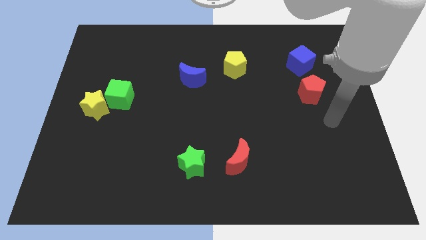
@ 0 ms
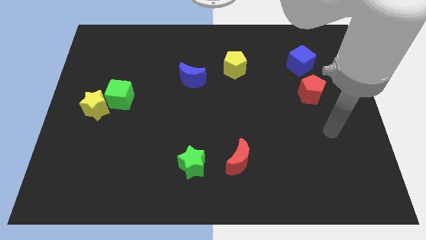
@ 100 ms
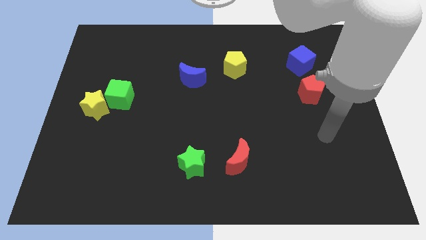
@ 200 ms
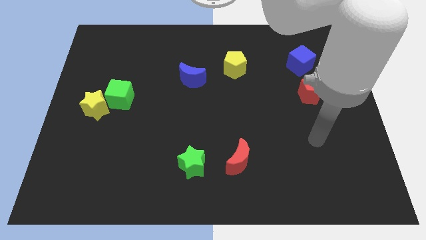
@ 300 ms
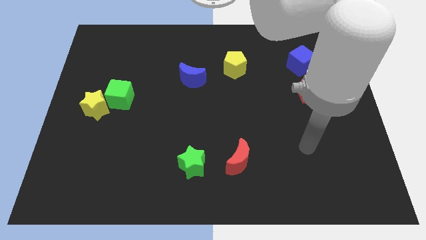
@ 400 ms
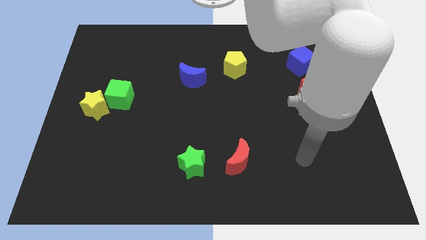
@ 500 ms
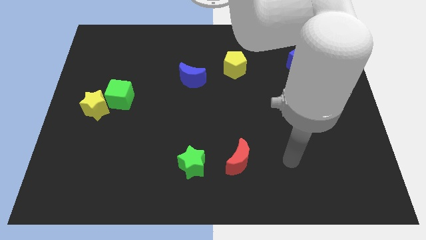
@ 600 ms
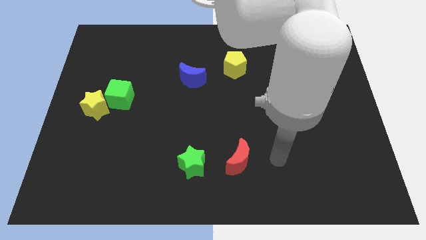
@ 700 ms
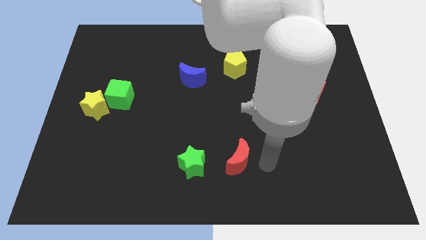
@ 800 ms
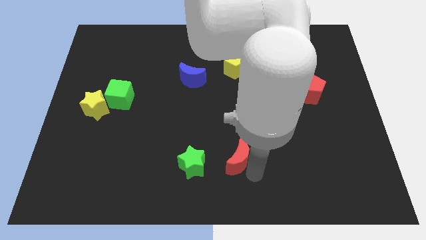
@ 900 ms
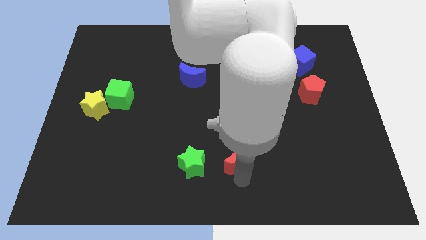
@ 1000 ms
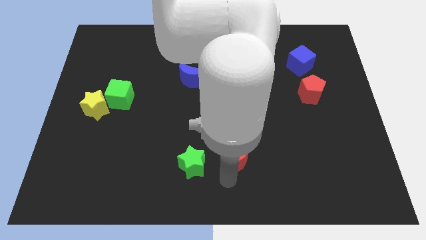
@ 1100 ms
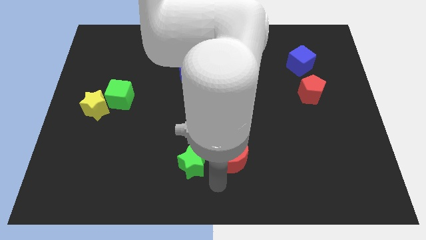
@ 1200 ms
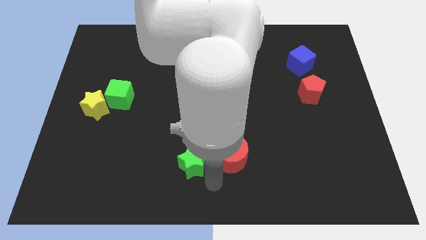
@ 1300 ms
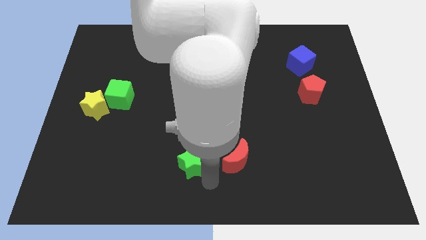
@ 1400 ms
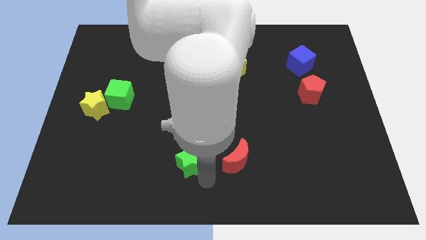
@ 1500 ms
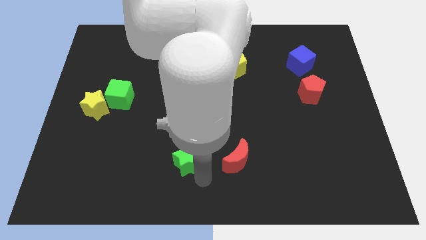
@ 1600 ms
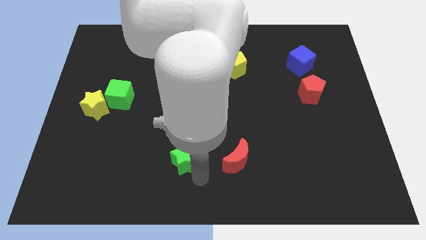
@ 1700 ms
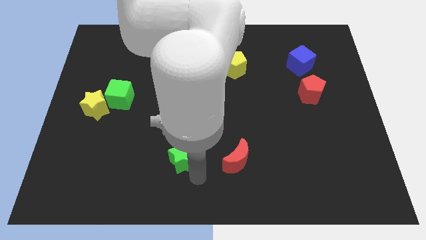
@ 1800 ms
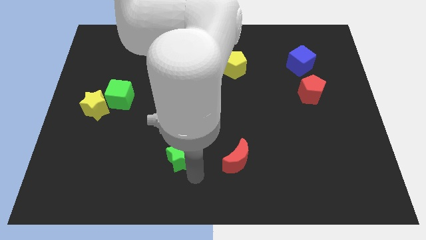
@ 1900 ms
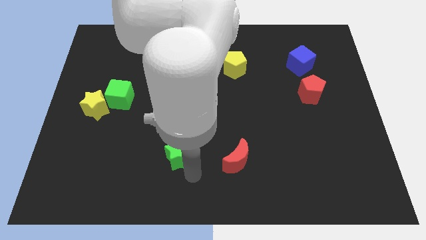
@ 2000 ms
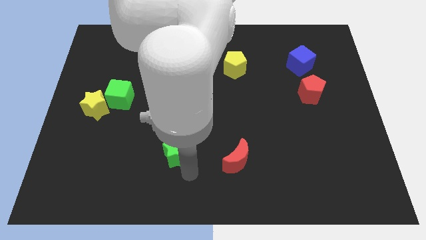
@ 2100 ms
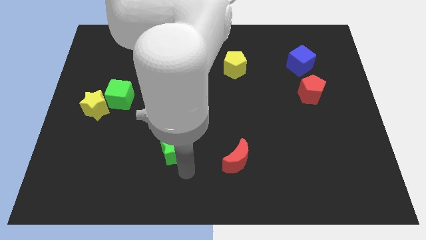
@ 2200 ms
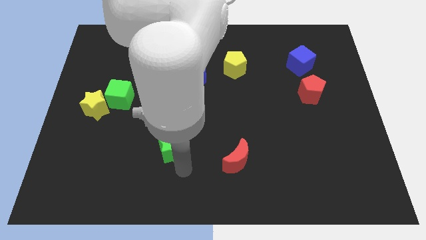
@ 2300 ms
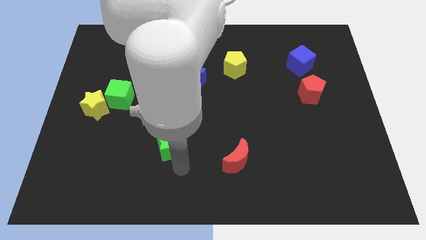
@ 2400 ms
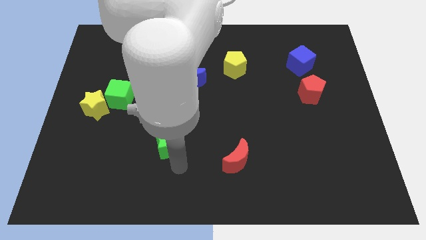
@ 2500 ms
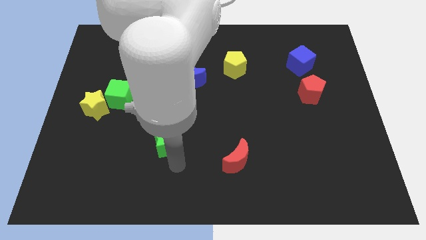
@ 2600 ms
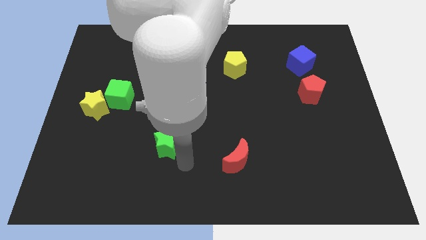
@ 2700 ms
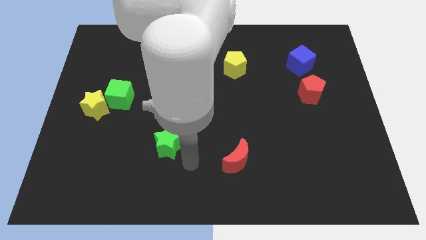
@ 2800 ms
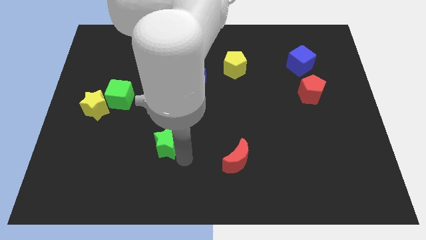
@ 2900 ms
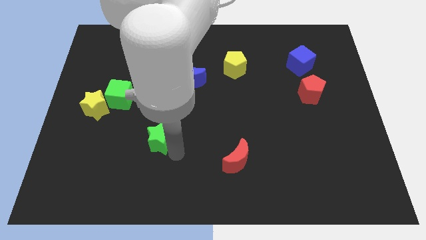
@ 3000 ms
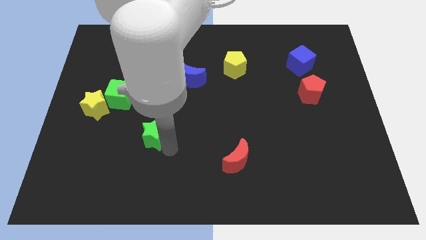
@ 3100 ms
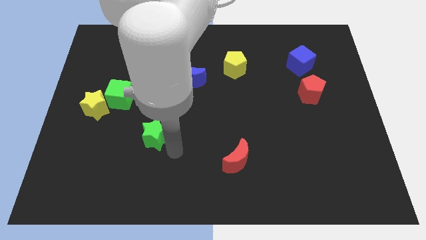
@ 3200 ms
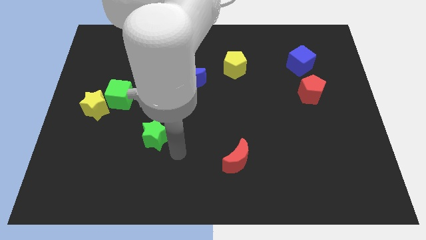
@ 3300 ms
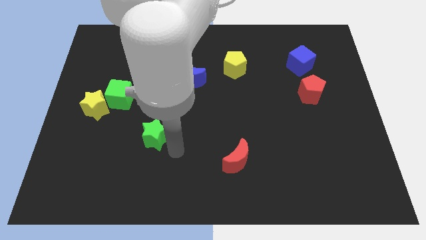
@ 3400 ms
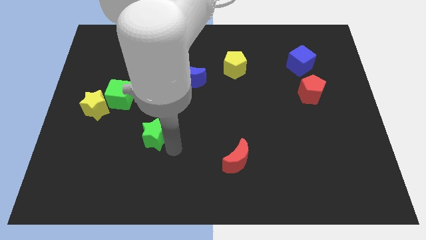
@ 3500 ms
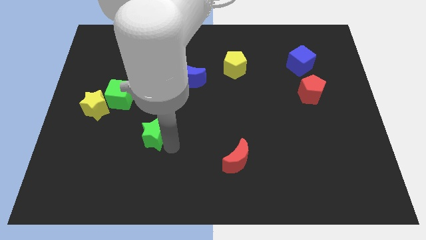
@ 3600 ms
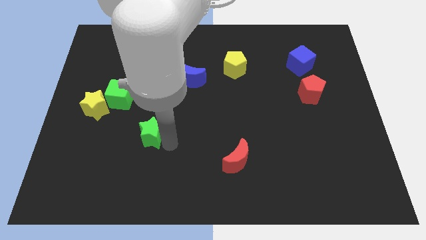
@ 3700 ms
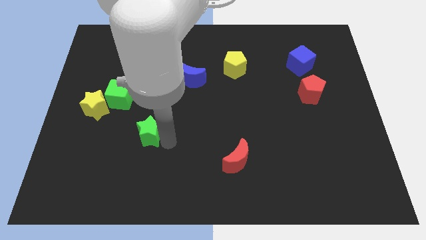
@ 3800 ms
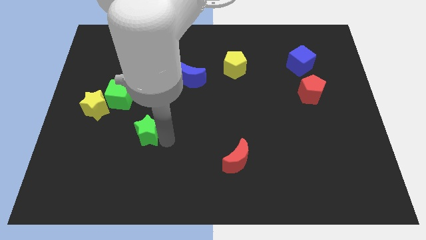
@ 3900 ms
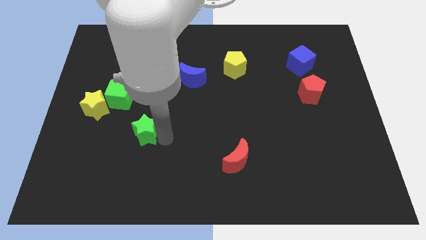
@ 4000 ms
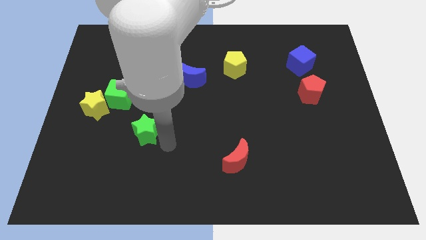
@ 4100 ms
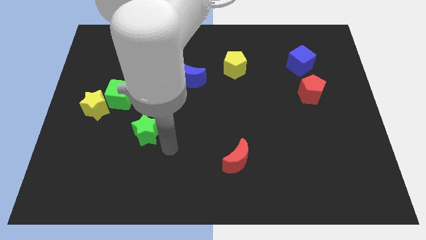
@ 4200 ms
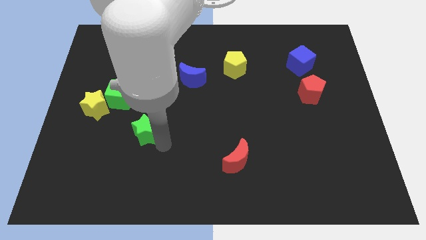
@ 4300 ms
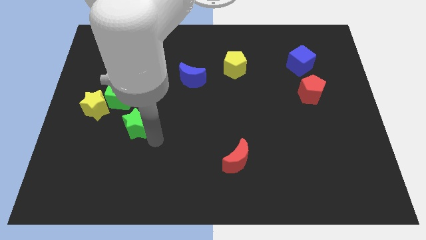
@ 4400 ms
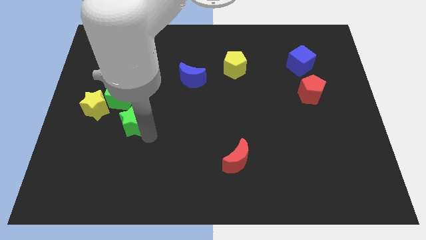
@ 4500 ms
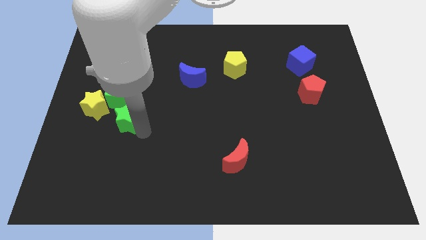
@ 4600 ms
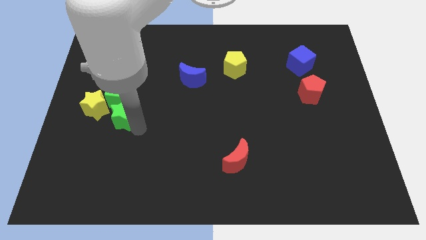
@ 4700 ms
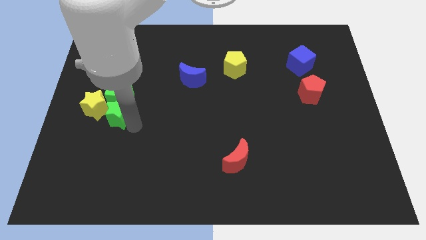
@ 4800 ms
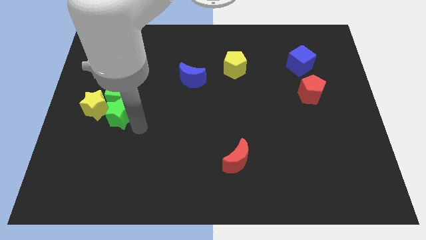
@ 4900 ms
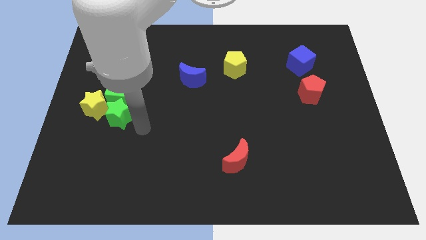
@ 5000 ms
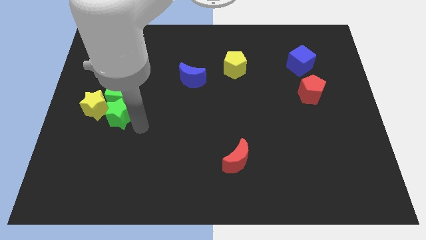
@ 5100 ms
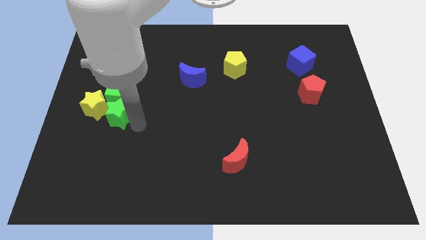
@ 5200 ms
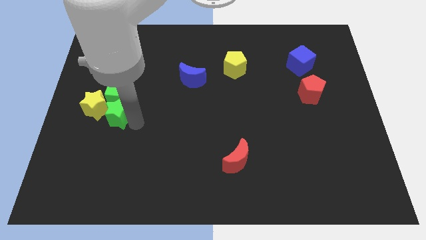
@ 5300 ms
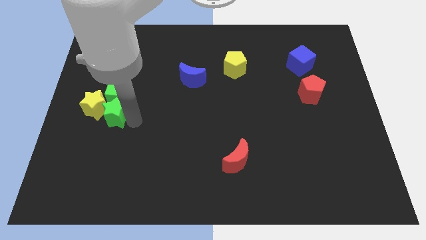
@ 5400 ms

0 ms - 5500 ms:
slide the green star close to the yellow star

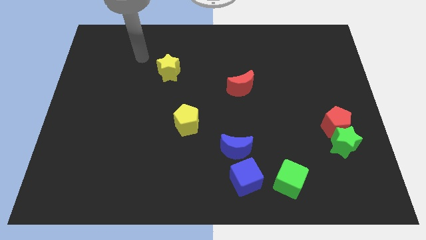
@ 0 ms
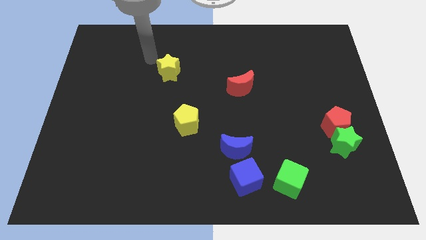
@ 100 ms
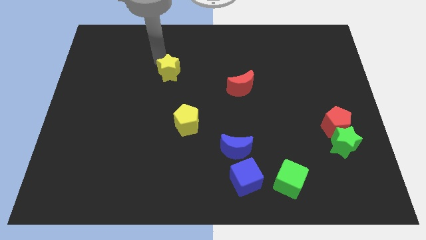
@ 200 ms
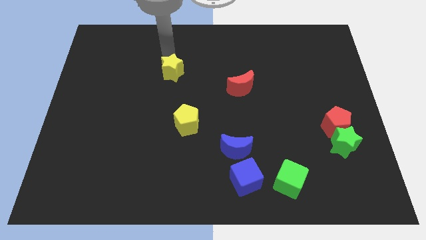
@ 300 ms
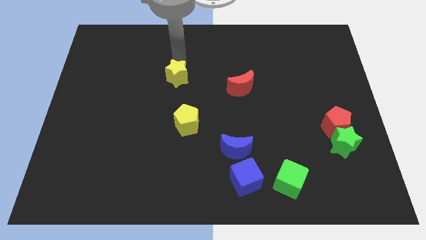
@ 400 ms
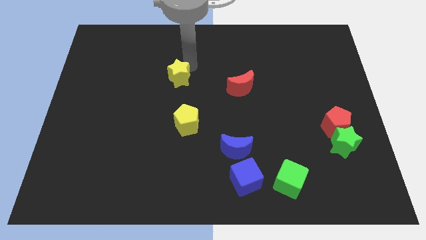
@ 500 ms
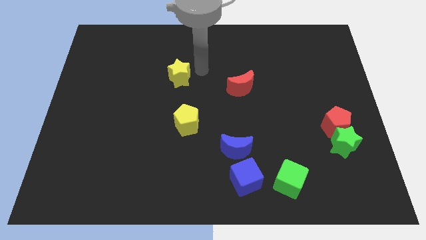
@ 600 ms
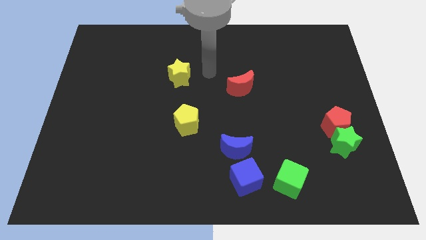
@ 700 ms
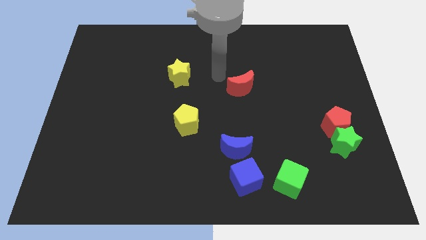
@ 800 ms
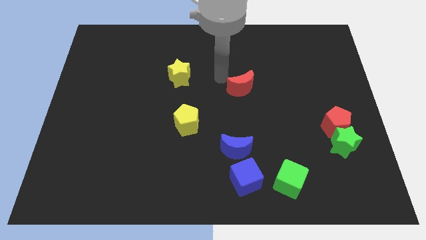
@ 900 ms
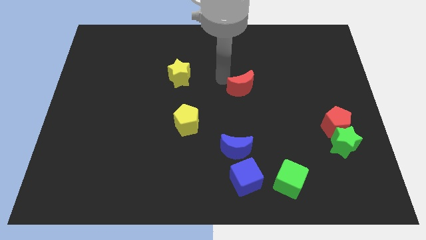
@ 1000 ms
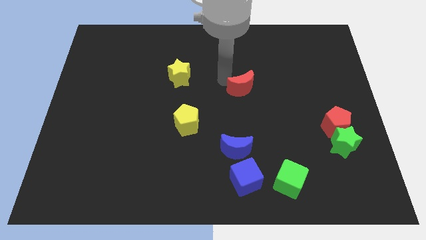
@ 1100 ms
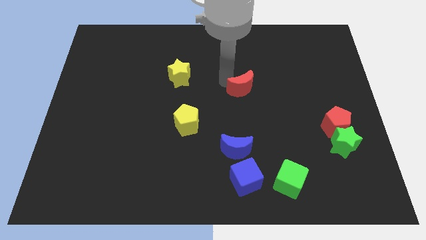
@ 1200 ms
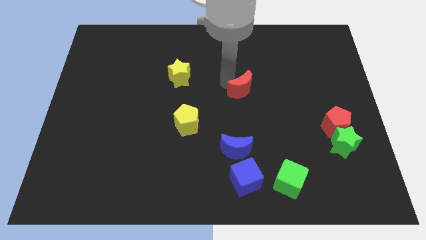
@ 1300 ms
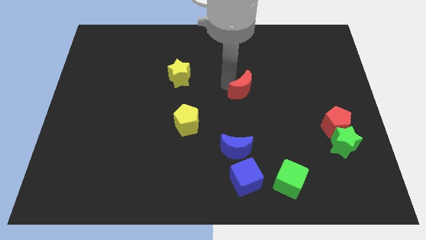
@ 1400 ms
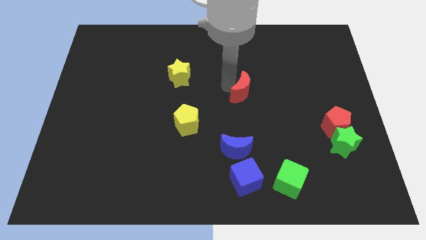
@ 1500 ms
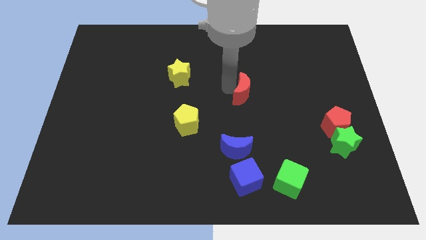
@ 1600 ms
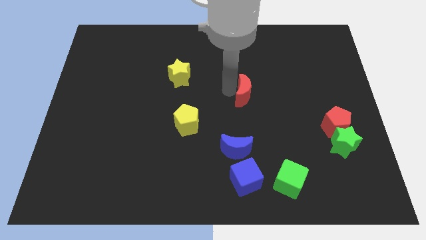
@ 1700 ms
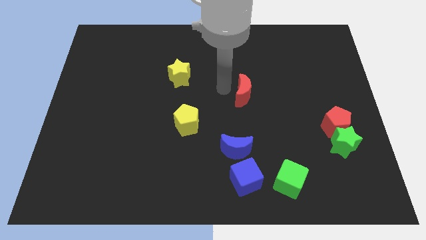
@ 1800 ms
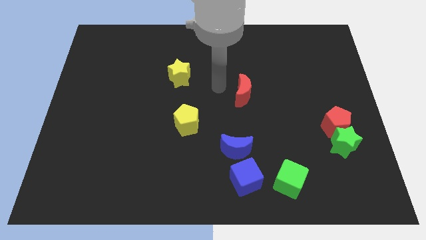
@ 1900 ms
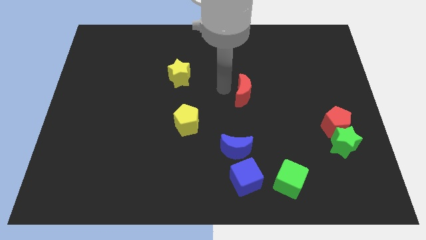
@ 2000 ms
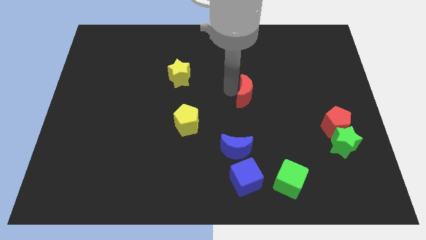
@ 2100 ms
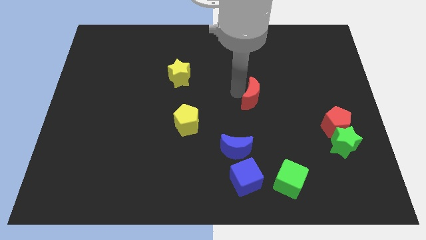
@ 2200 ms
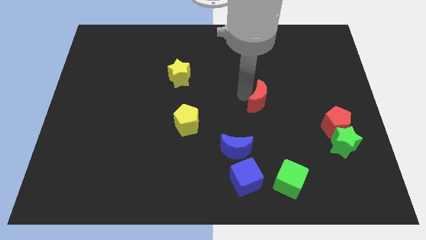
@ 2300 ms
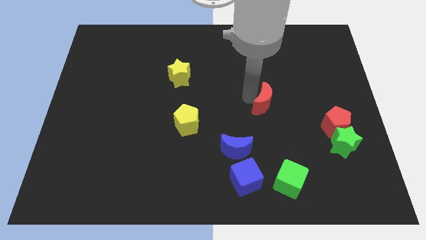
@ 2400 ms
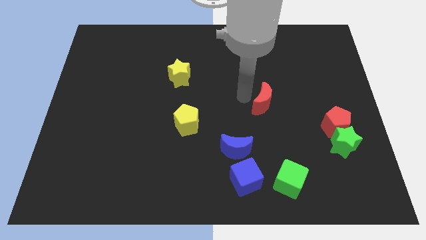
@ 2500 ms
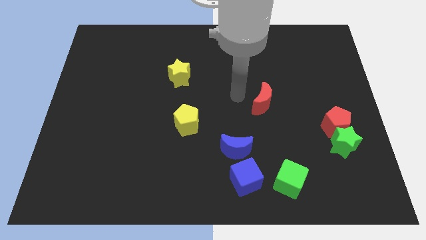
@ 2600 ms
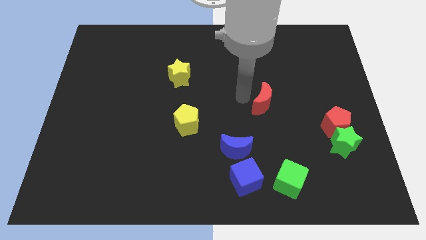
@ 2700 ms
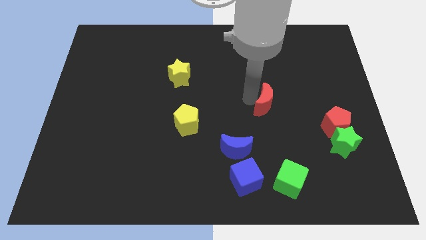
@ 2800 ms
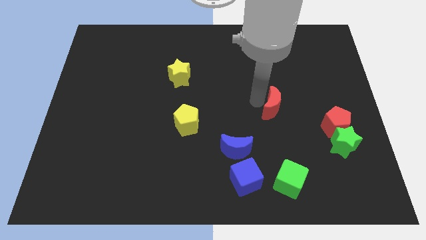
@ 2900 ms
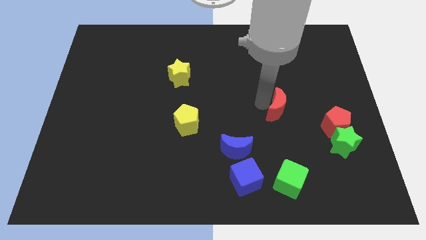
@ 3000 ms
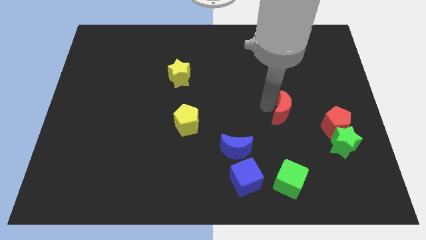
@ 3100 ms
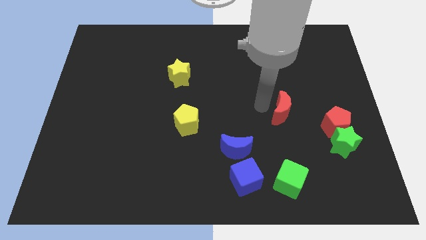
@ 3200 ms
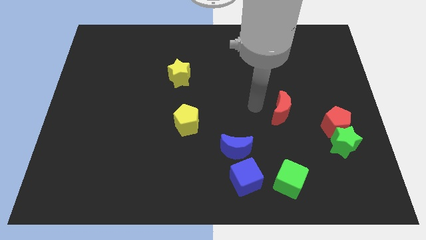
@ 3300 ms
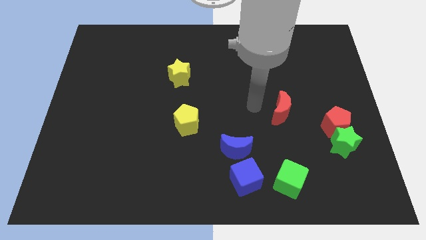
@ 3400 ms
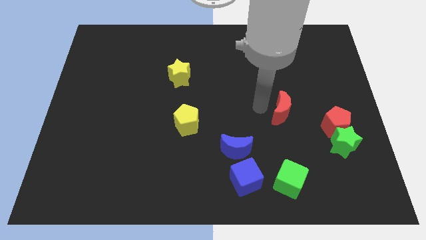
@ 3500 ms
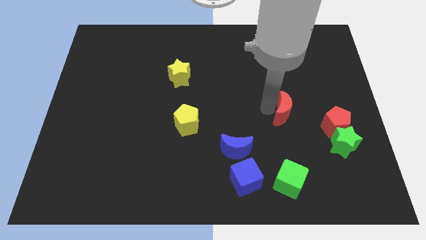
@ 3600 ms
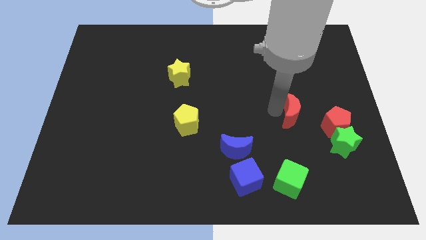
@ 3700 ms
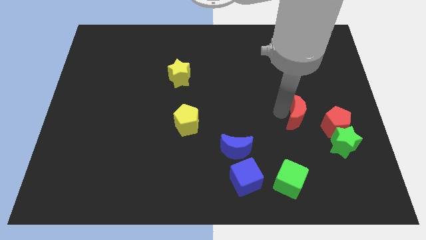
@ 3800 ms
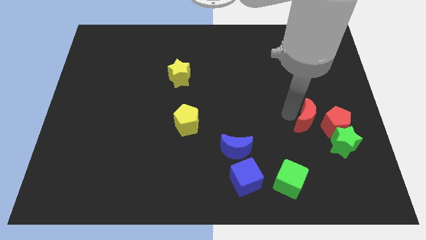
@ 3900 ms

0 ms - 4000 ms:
push the red moon to the red pentagon
